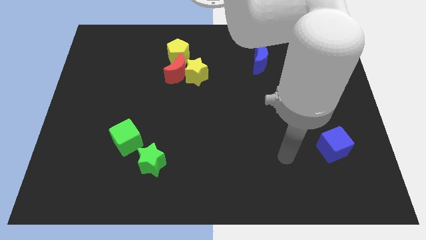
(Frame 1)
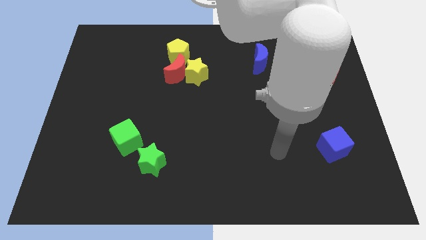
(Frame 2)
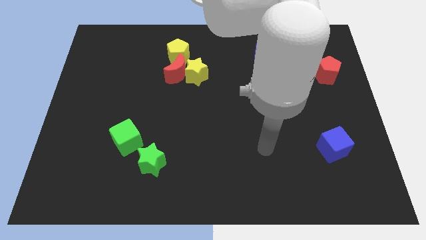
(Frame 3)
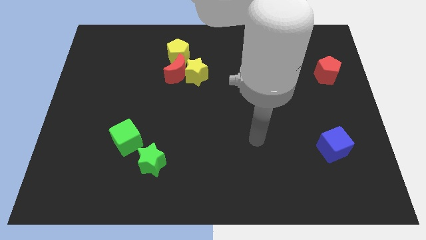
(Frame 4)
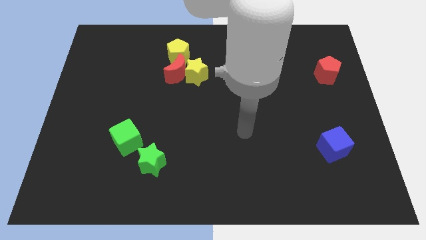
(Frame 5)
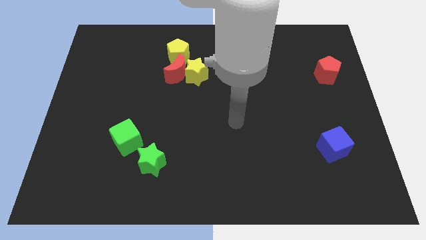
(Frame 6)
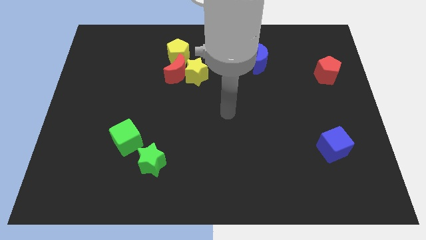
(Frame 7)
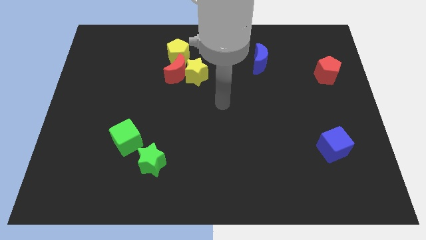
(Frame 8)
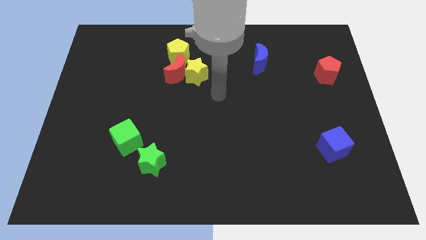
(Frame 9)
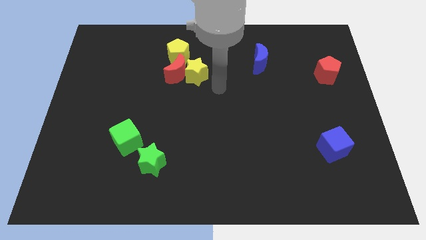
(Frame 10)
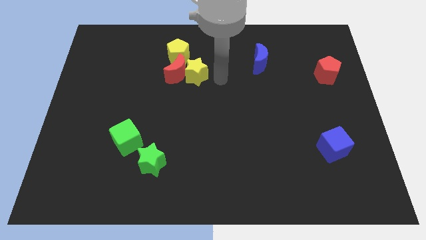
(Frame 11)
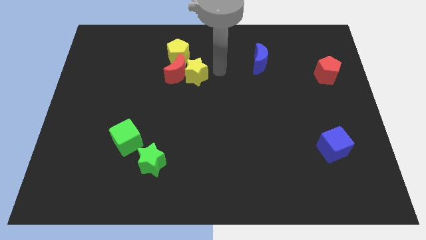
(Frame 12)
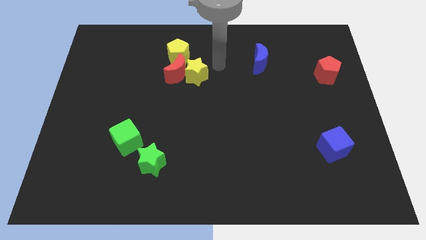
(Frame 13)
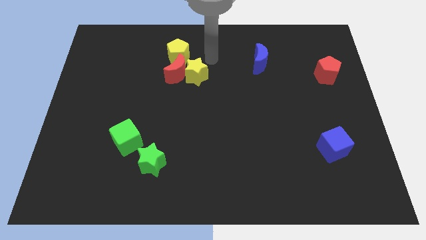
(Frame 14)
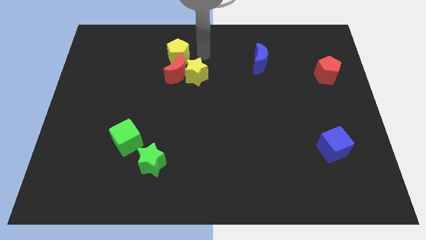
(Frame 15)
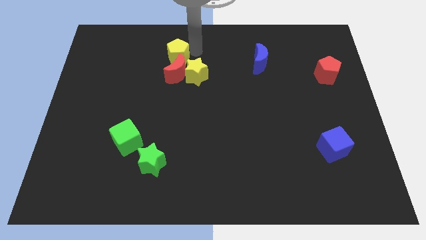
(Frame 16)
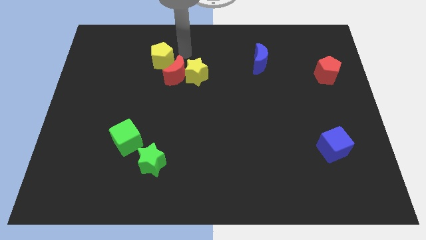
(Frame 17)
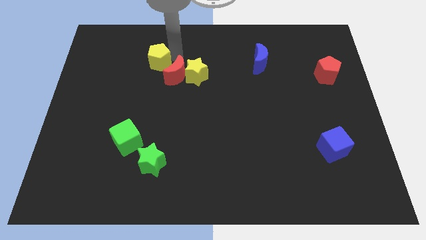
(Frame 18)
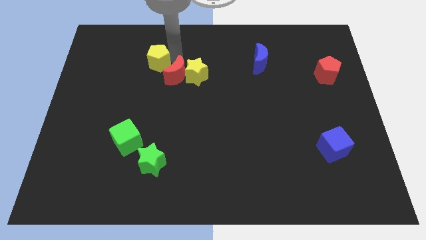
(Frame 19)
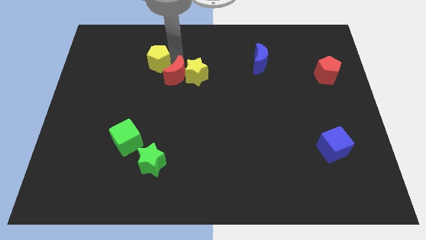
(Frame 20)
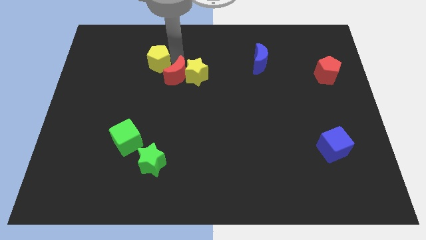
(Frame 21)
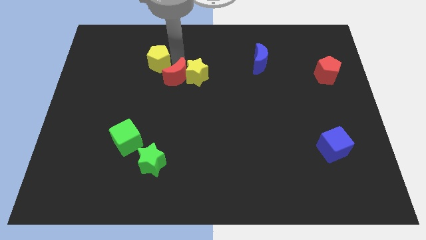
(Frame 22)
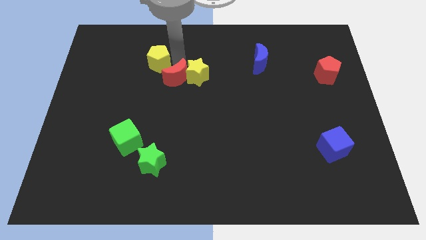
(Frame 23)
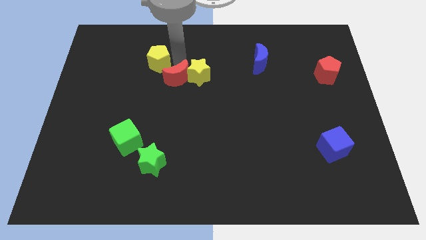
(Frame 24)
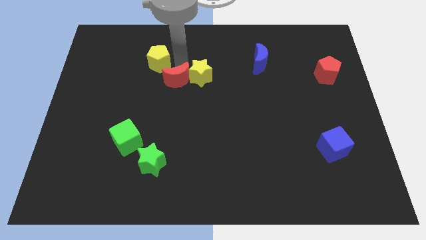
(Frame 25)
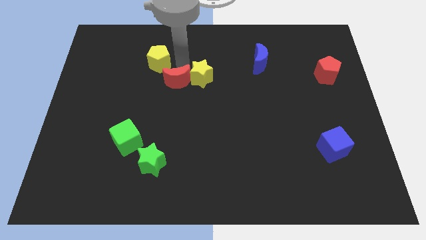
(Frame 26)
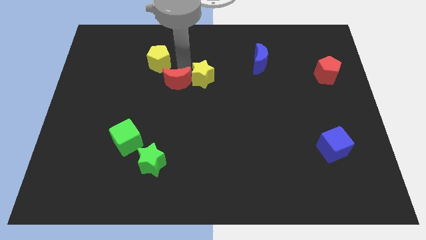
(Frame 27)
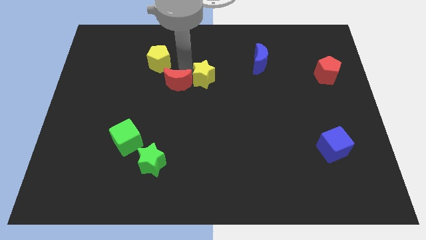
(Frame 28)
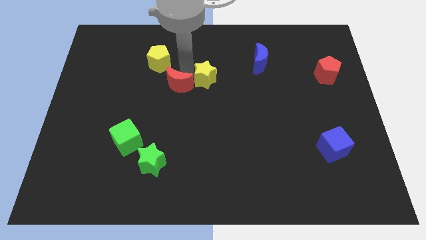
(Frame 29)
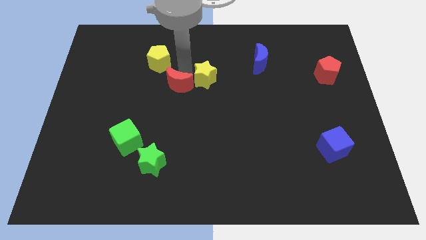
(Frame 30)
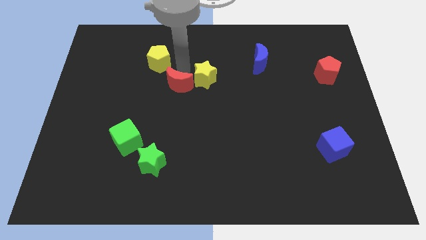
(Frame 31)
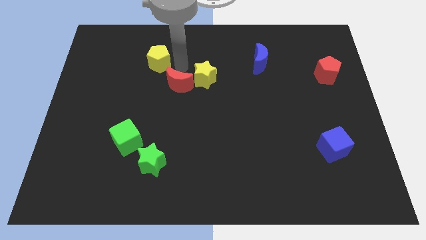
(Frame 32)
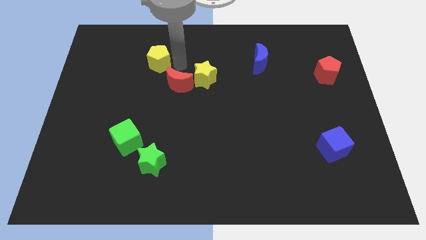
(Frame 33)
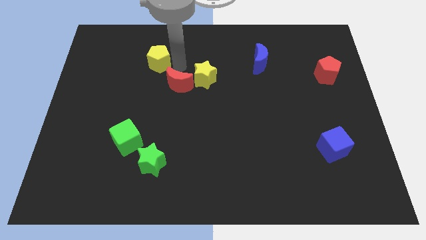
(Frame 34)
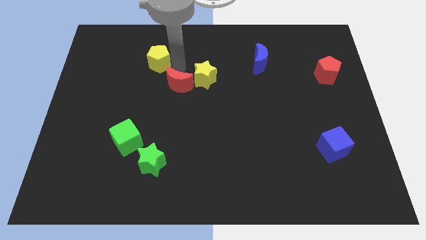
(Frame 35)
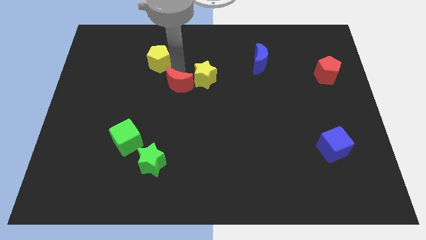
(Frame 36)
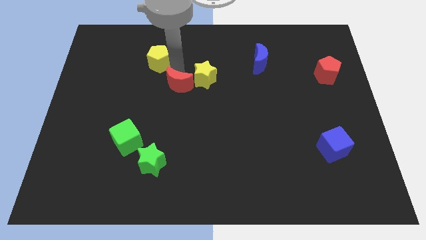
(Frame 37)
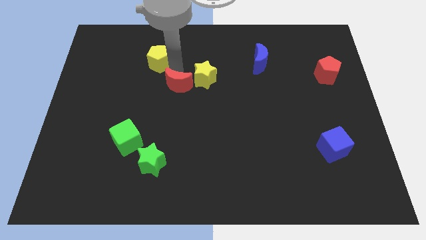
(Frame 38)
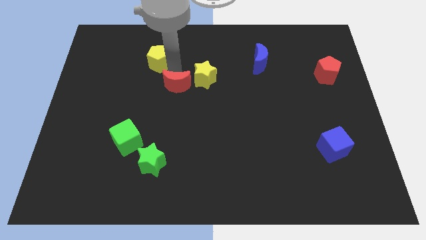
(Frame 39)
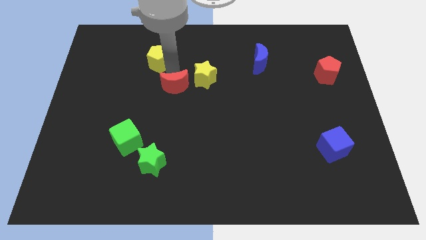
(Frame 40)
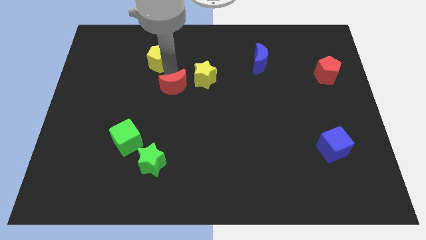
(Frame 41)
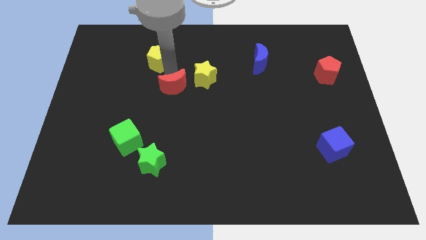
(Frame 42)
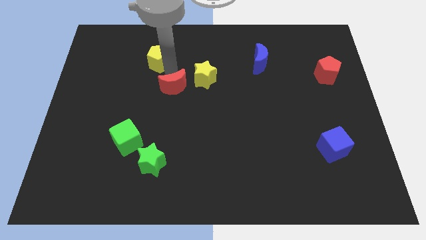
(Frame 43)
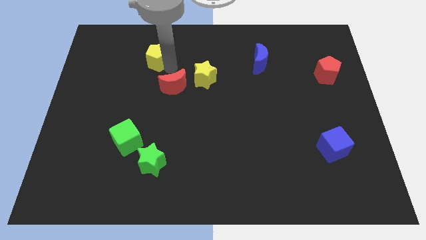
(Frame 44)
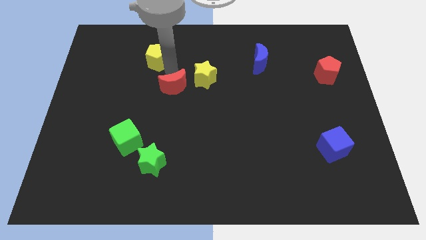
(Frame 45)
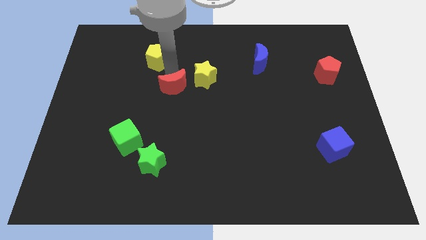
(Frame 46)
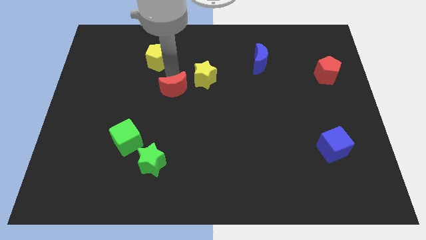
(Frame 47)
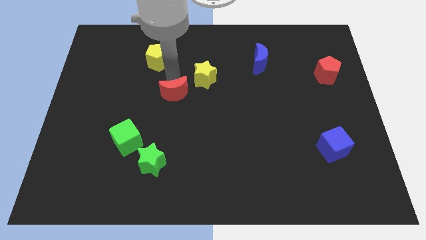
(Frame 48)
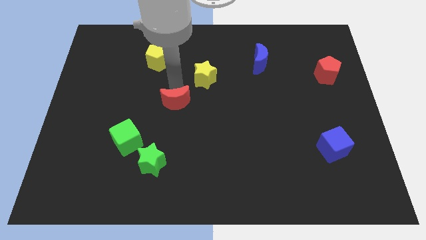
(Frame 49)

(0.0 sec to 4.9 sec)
move the red moon a little bit downwards

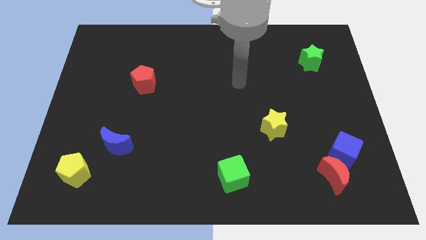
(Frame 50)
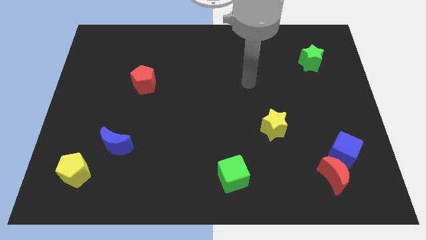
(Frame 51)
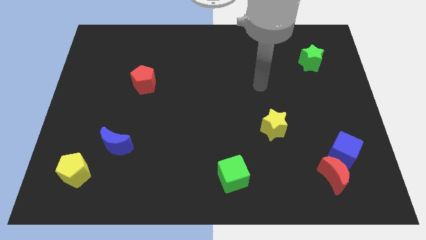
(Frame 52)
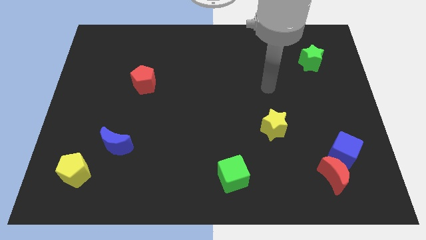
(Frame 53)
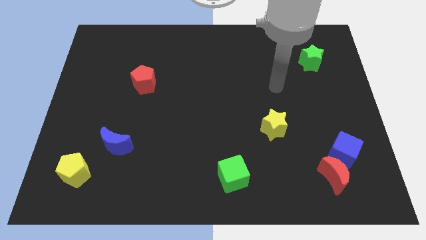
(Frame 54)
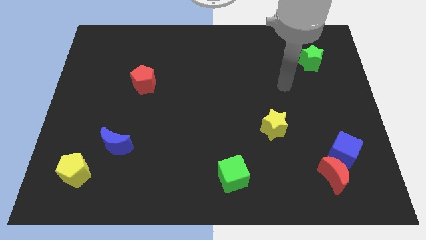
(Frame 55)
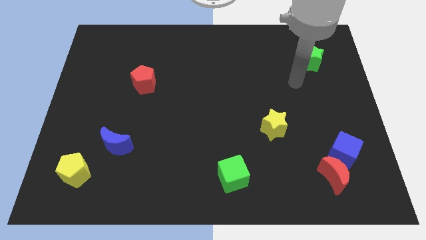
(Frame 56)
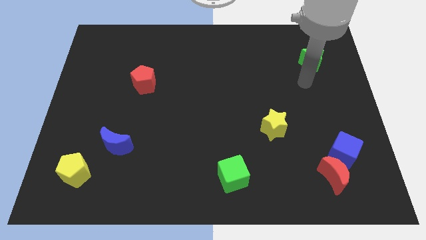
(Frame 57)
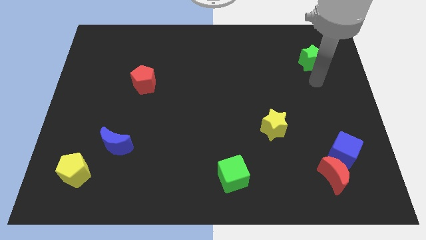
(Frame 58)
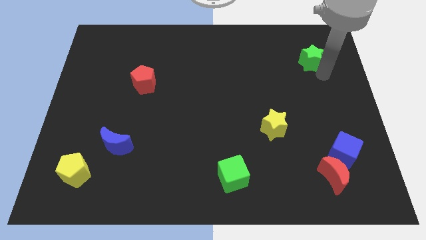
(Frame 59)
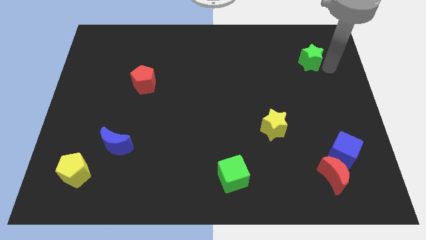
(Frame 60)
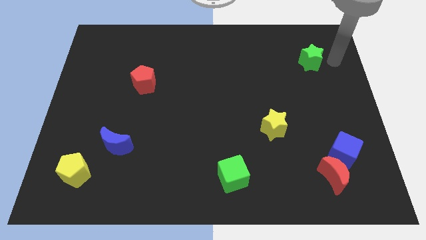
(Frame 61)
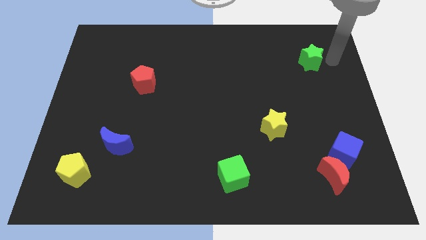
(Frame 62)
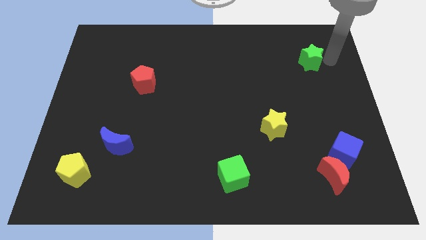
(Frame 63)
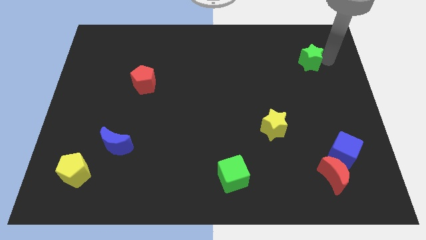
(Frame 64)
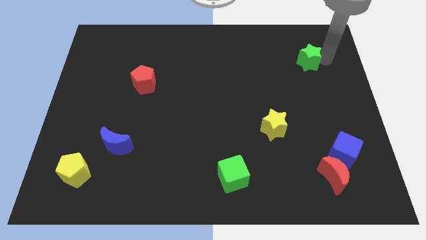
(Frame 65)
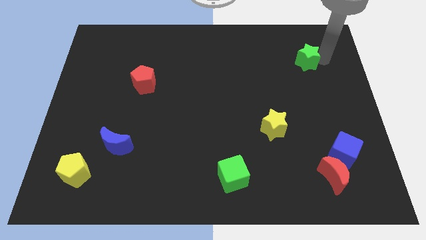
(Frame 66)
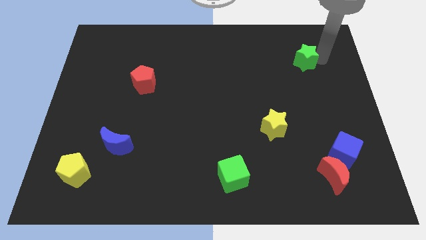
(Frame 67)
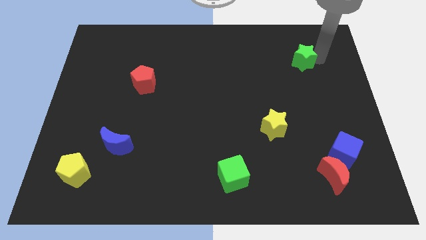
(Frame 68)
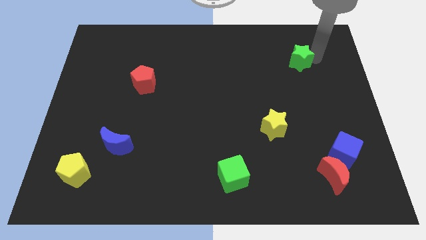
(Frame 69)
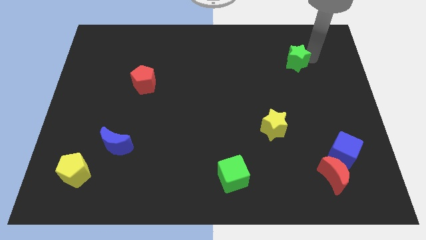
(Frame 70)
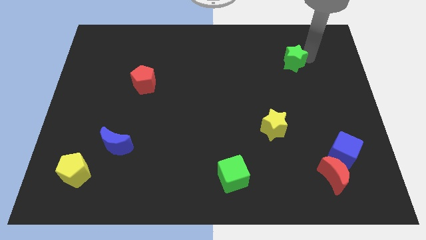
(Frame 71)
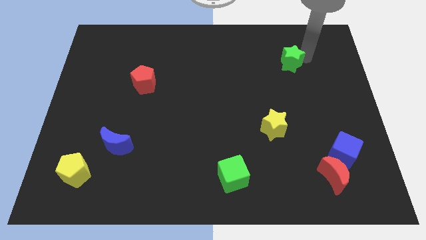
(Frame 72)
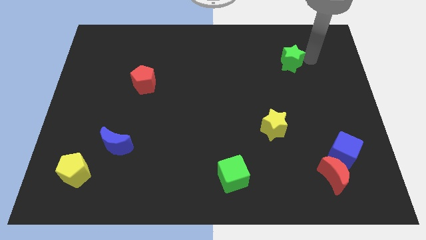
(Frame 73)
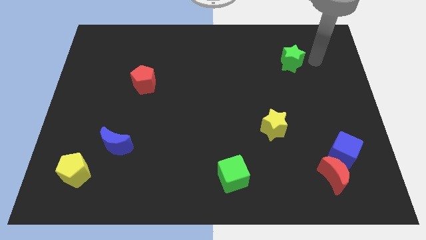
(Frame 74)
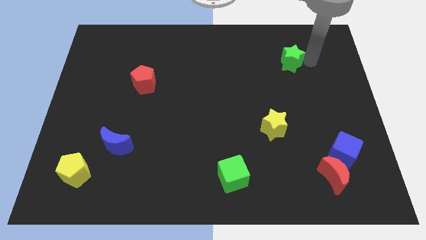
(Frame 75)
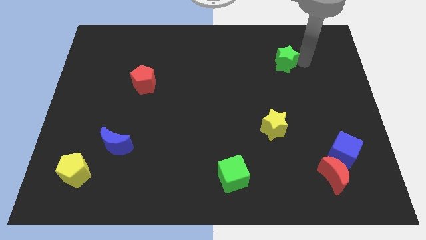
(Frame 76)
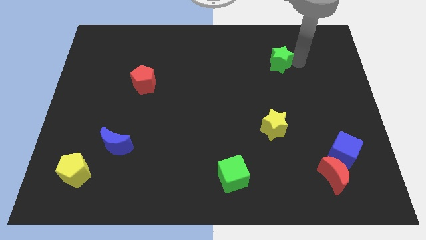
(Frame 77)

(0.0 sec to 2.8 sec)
push the green star somewhat to the left

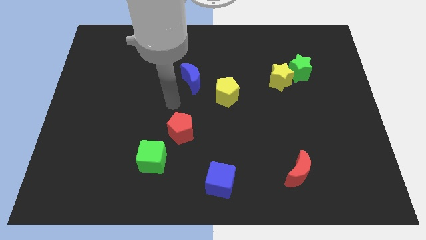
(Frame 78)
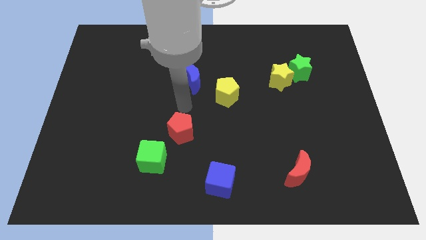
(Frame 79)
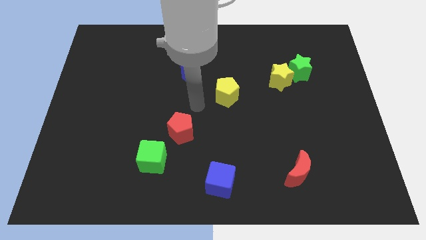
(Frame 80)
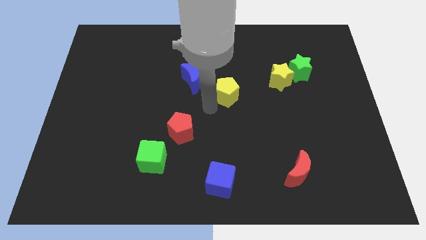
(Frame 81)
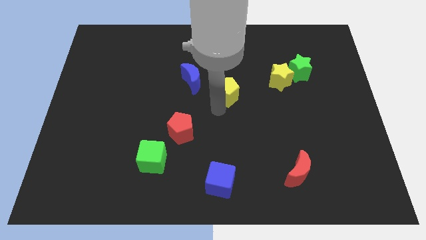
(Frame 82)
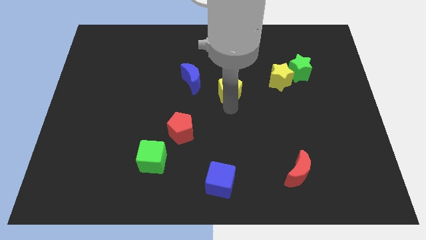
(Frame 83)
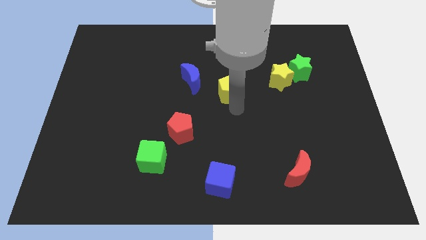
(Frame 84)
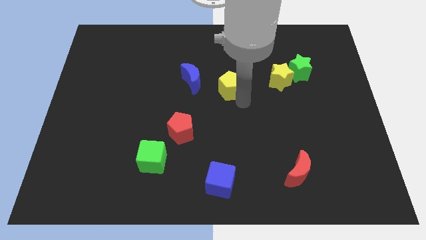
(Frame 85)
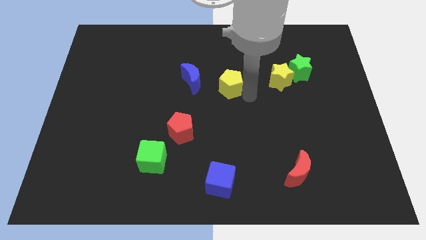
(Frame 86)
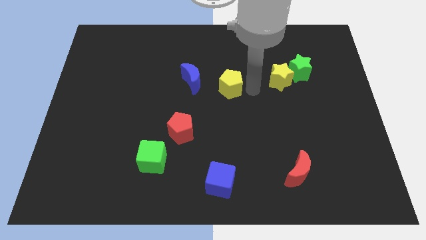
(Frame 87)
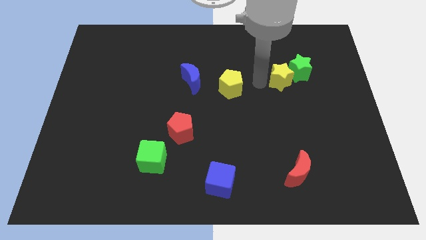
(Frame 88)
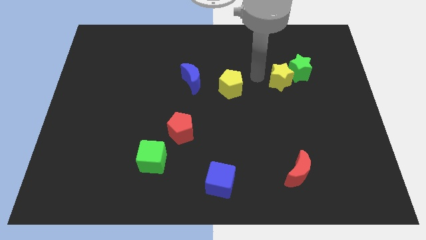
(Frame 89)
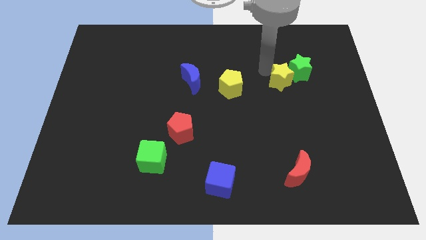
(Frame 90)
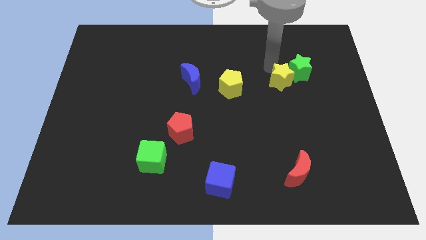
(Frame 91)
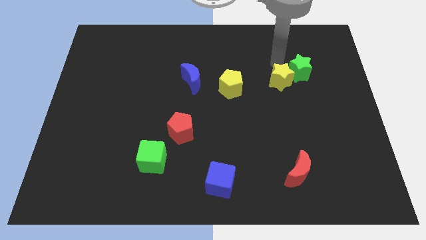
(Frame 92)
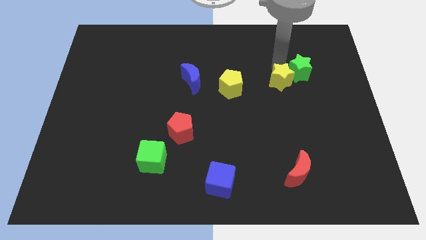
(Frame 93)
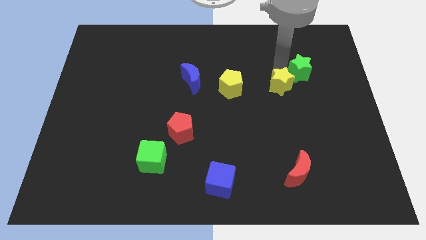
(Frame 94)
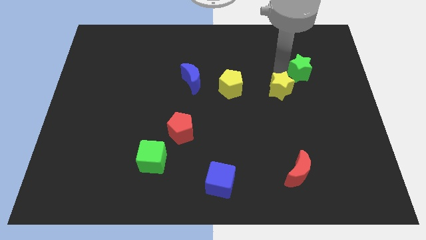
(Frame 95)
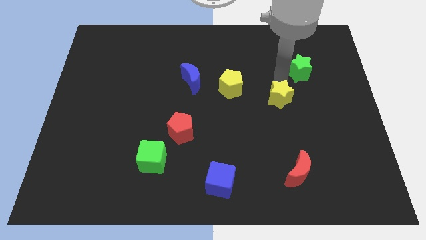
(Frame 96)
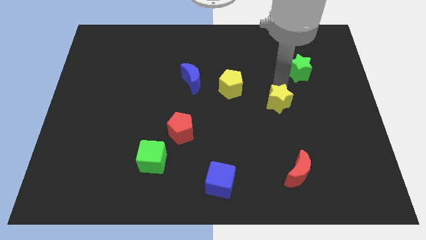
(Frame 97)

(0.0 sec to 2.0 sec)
slightly move the yellow star down
